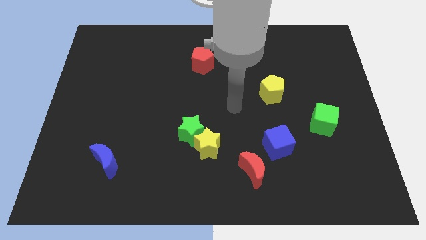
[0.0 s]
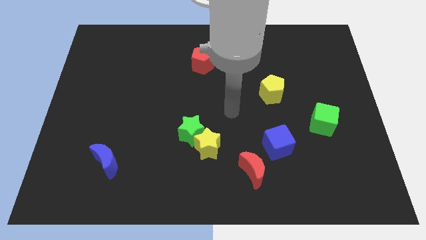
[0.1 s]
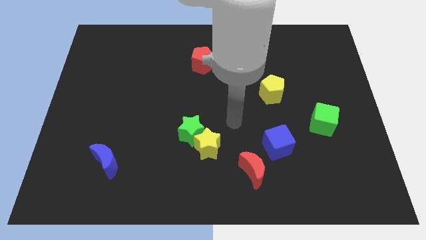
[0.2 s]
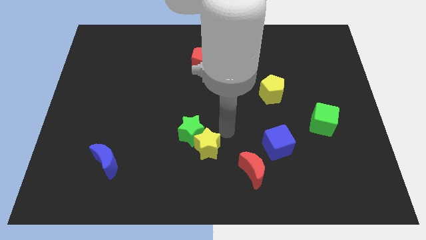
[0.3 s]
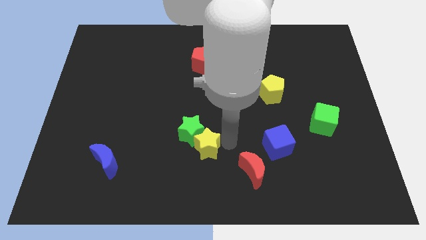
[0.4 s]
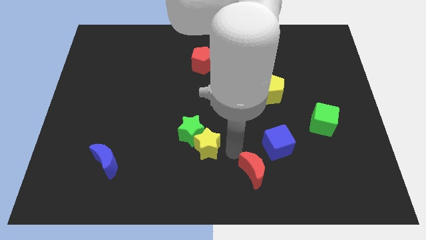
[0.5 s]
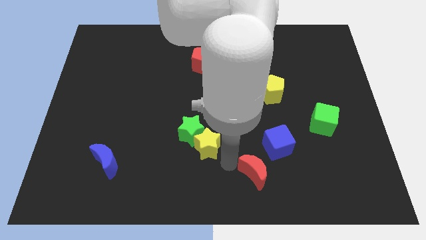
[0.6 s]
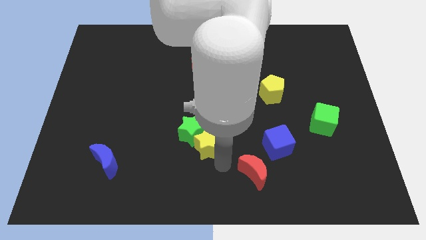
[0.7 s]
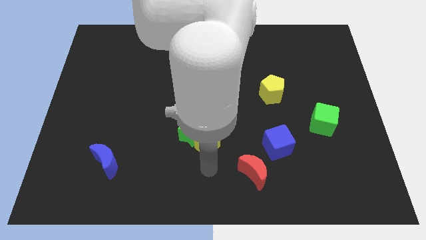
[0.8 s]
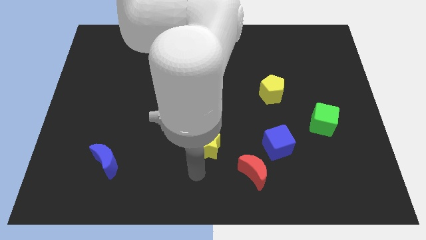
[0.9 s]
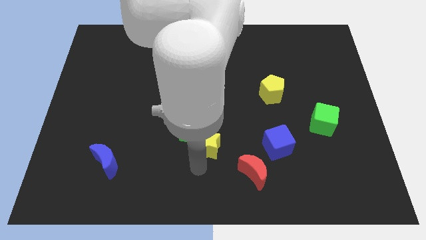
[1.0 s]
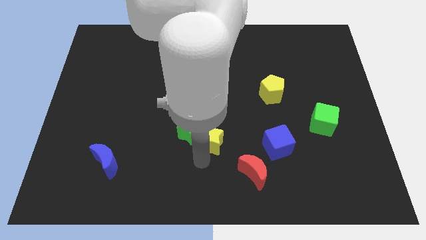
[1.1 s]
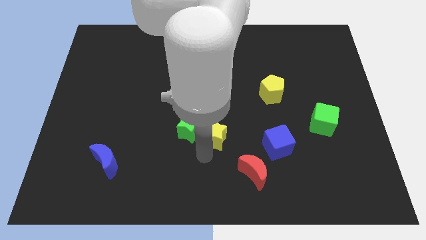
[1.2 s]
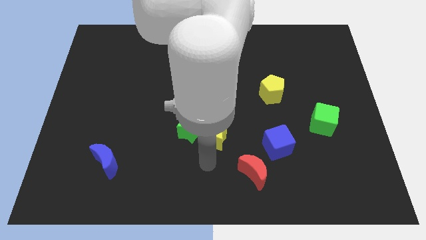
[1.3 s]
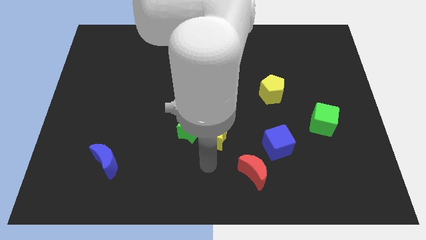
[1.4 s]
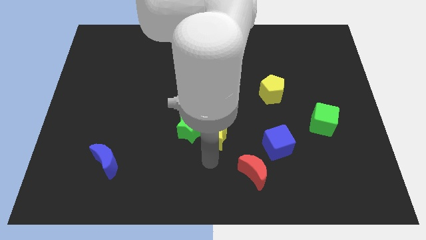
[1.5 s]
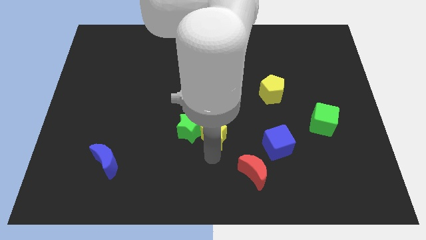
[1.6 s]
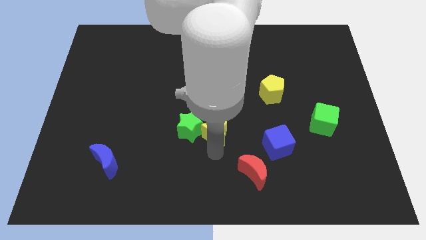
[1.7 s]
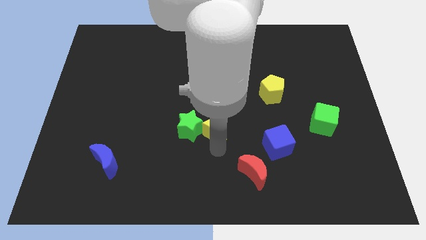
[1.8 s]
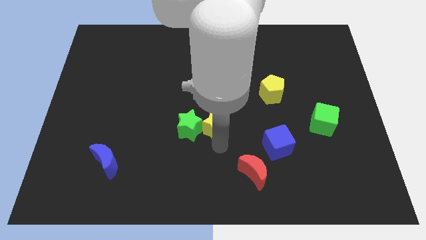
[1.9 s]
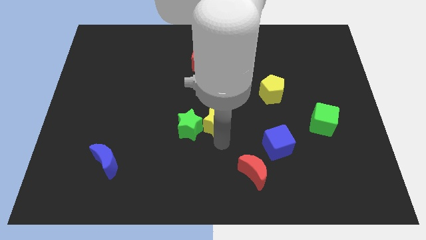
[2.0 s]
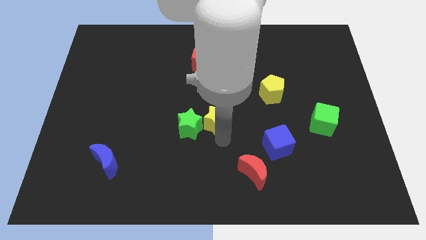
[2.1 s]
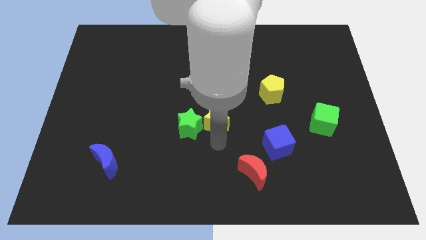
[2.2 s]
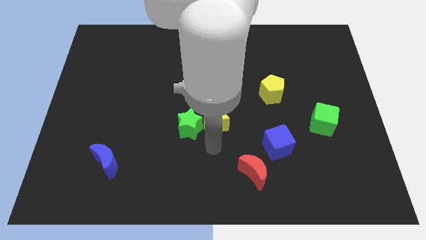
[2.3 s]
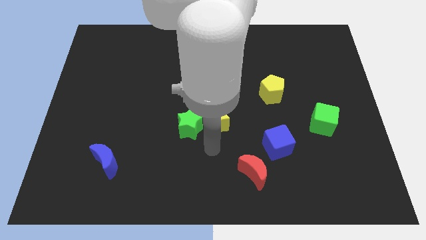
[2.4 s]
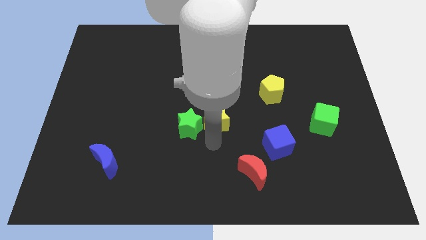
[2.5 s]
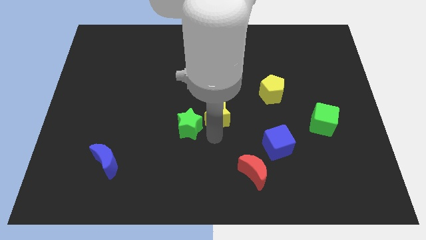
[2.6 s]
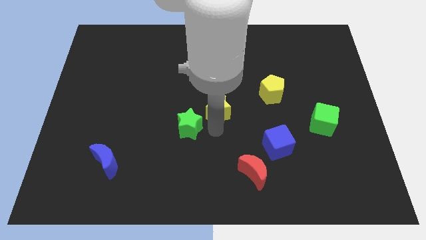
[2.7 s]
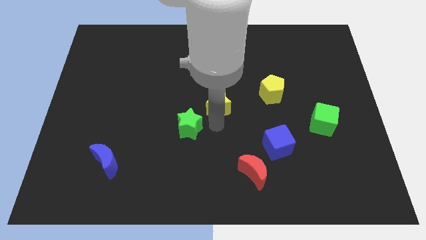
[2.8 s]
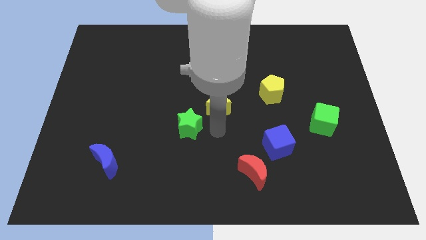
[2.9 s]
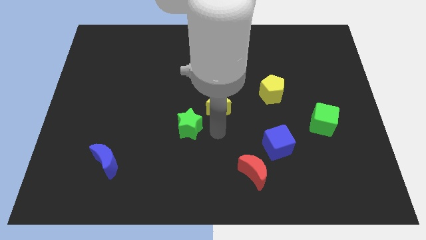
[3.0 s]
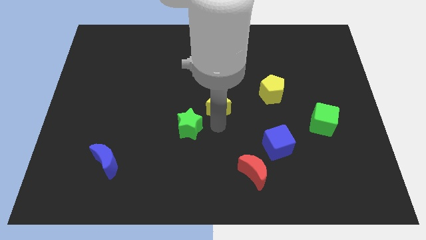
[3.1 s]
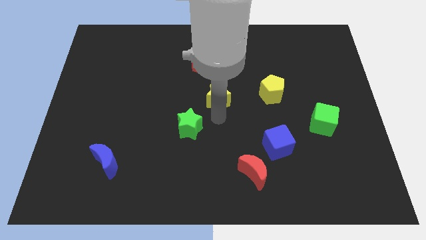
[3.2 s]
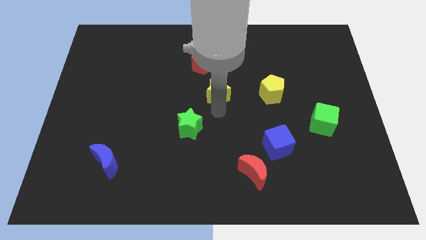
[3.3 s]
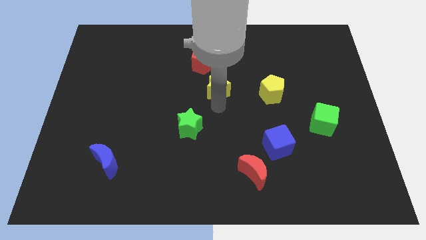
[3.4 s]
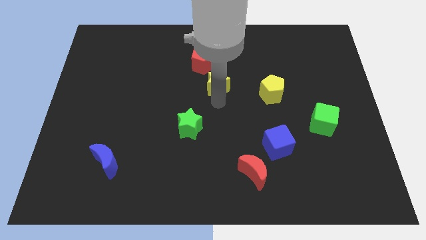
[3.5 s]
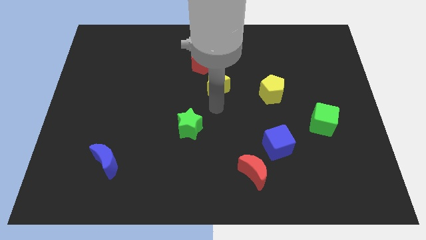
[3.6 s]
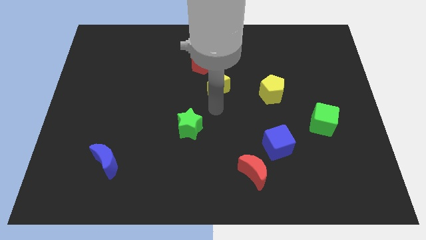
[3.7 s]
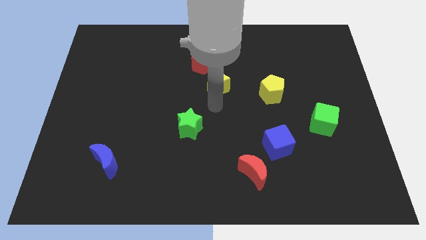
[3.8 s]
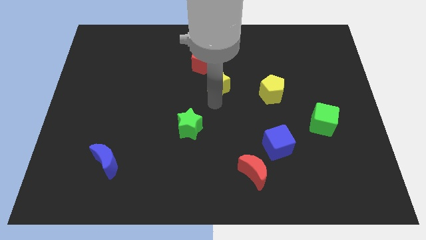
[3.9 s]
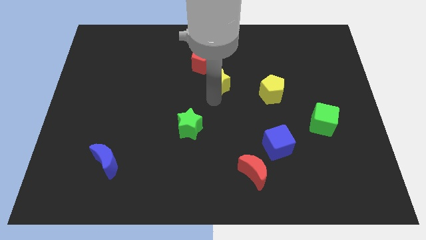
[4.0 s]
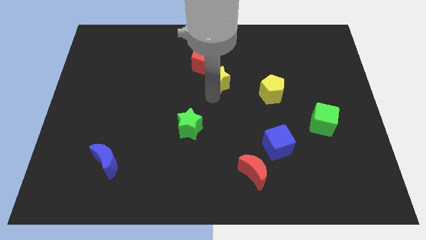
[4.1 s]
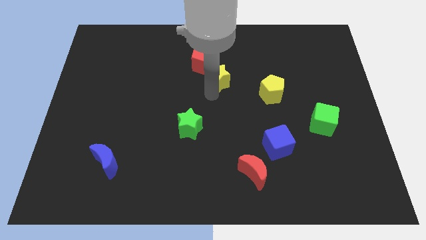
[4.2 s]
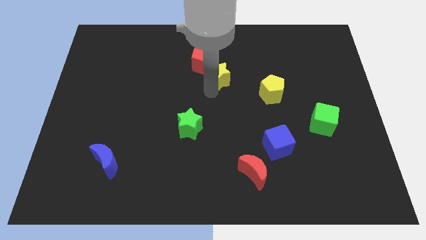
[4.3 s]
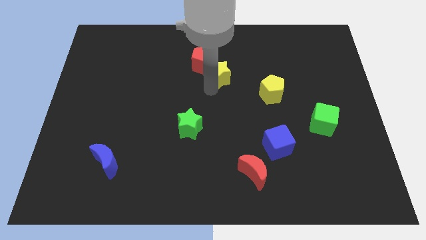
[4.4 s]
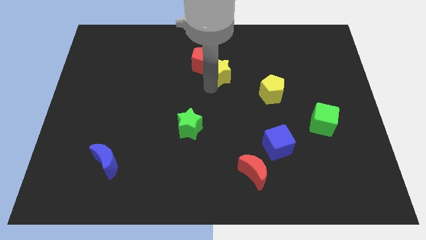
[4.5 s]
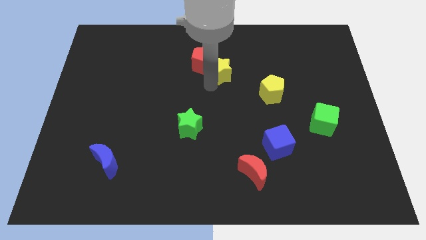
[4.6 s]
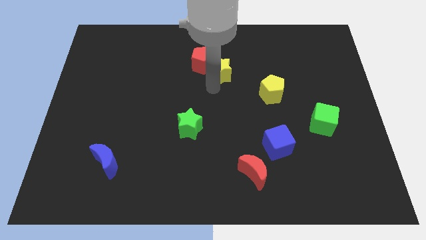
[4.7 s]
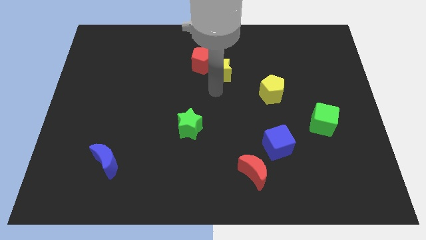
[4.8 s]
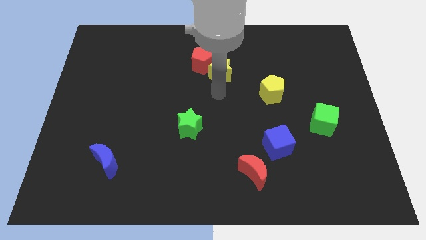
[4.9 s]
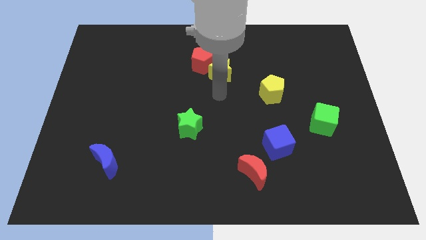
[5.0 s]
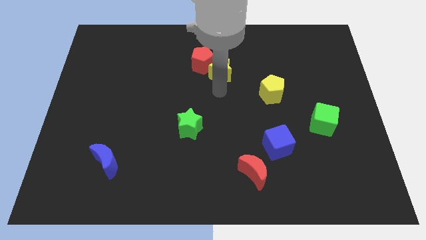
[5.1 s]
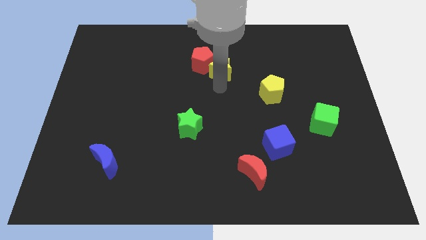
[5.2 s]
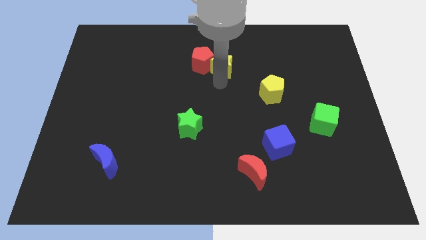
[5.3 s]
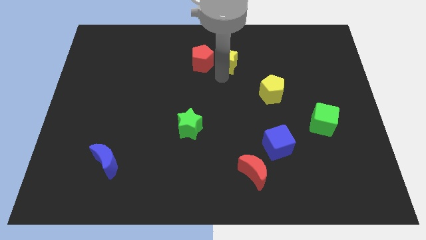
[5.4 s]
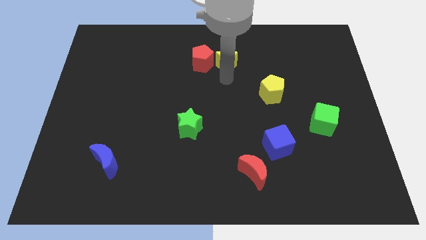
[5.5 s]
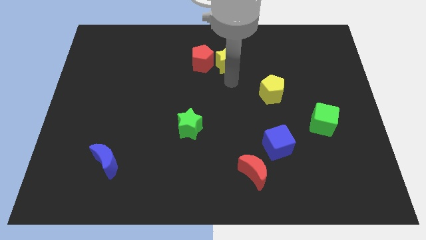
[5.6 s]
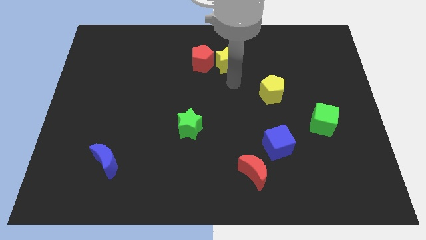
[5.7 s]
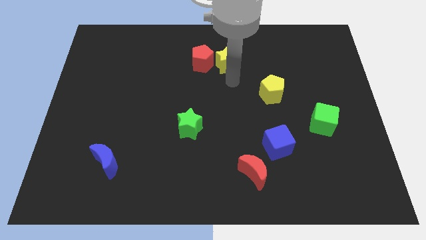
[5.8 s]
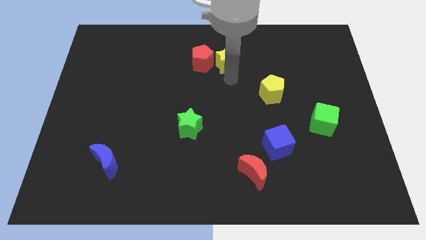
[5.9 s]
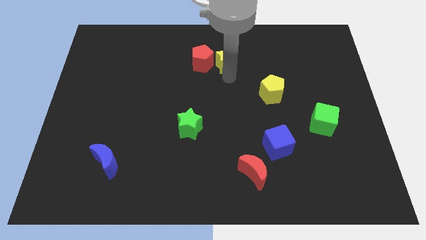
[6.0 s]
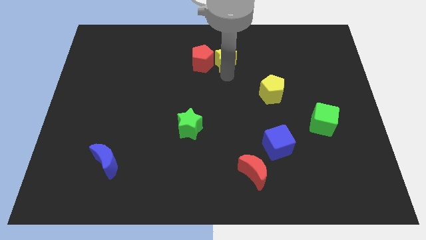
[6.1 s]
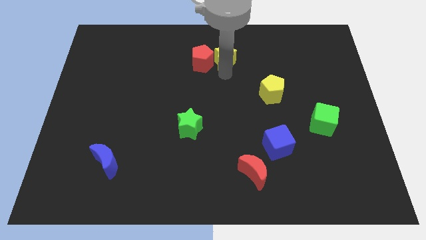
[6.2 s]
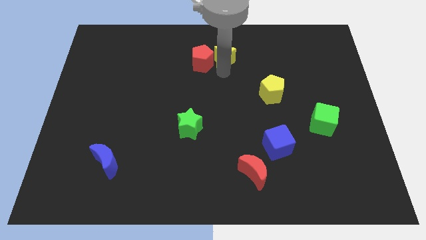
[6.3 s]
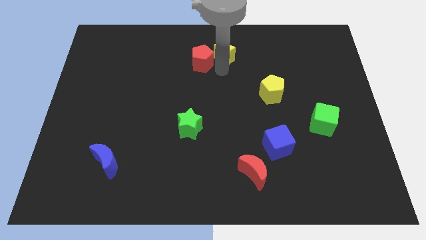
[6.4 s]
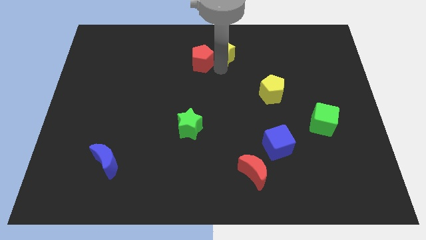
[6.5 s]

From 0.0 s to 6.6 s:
put the yellow star to the towards your base
